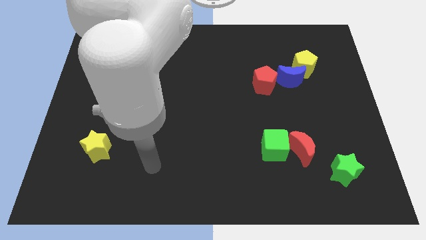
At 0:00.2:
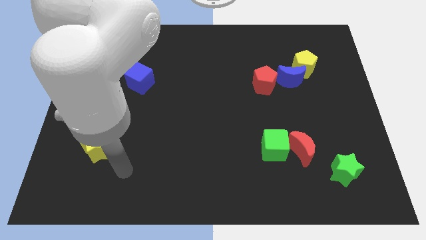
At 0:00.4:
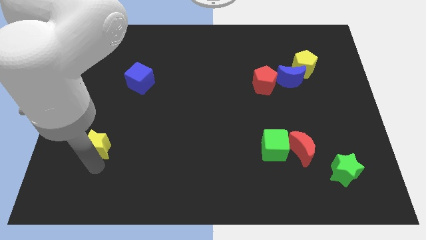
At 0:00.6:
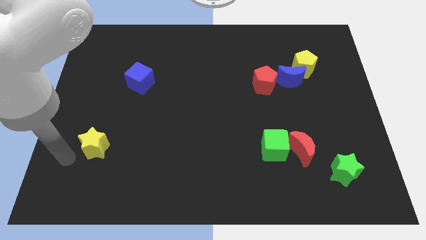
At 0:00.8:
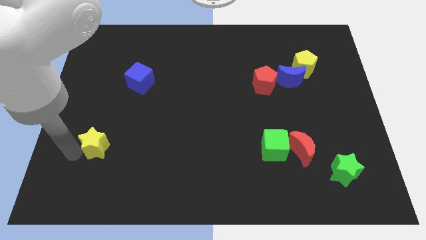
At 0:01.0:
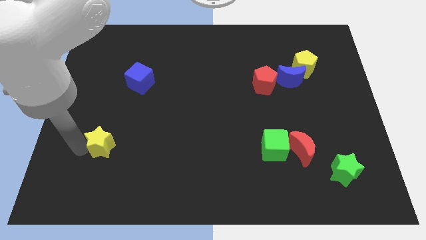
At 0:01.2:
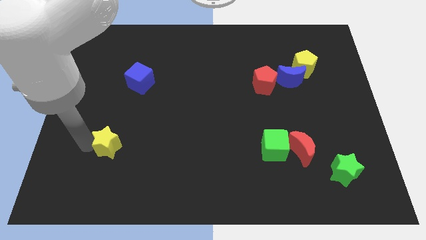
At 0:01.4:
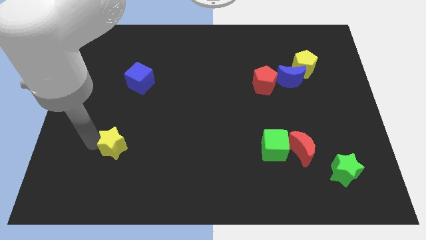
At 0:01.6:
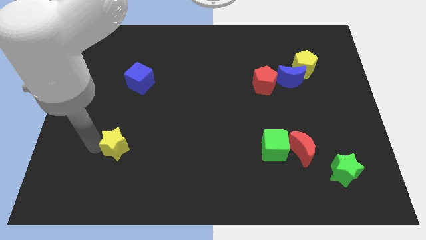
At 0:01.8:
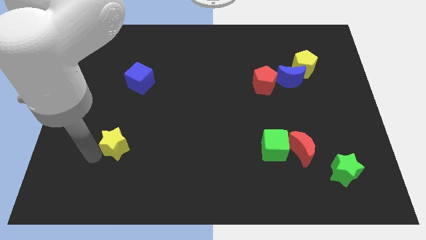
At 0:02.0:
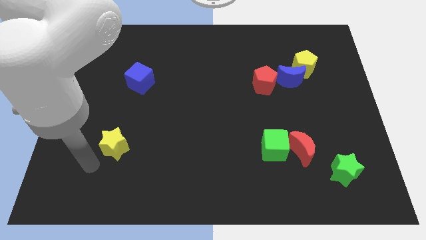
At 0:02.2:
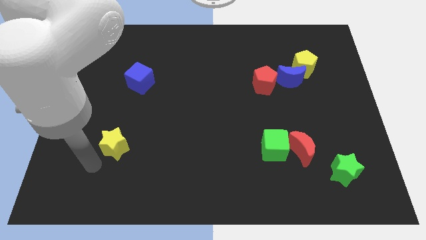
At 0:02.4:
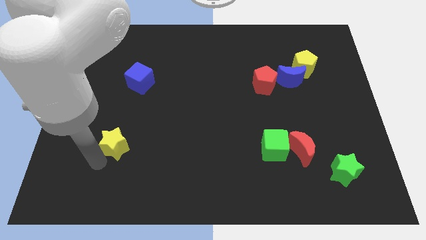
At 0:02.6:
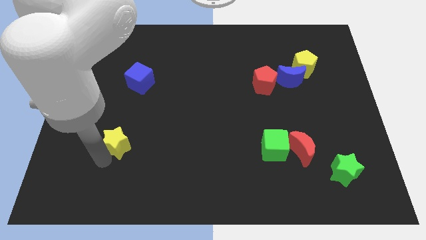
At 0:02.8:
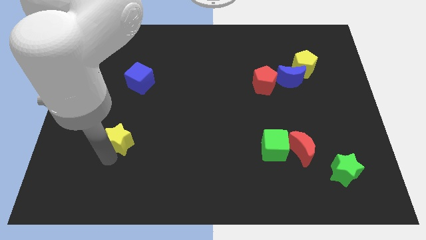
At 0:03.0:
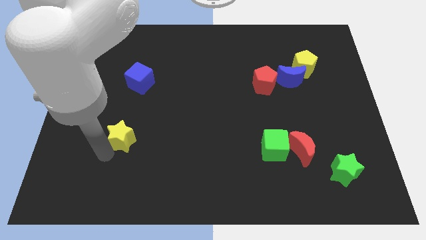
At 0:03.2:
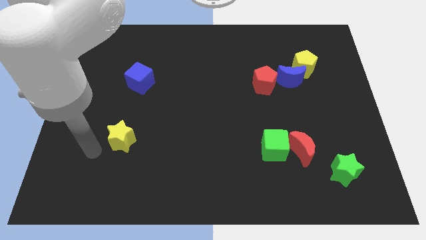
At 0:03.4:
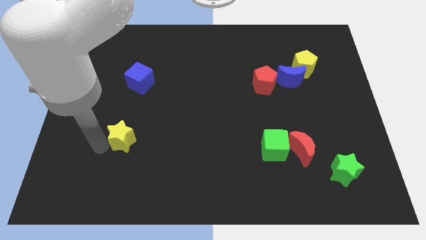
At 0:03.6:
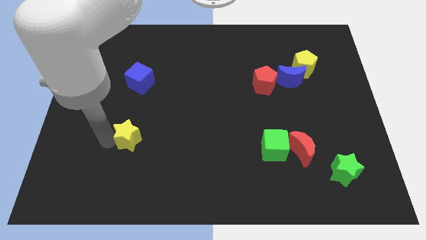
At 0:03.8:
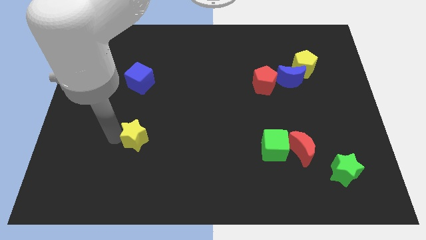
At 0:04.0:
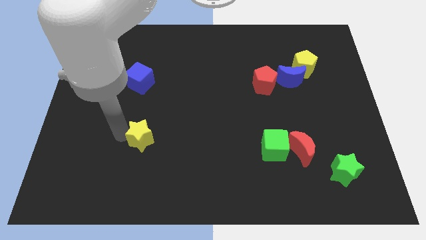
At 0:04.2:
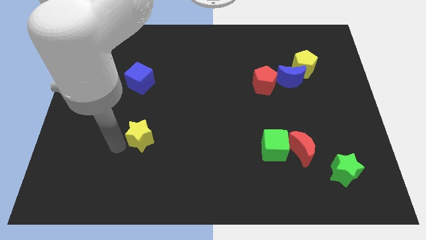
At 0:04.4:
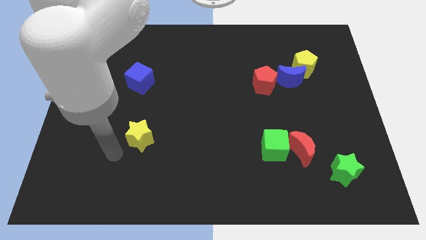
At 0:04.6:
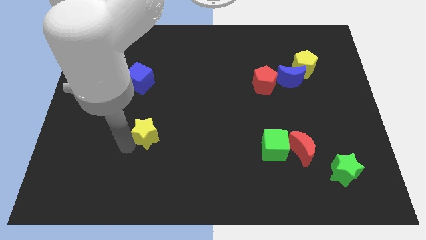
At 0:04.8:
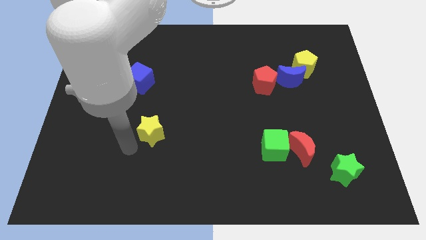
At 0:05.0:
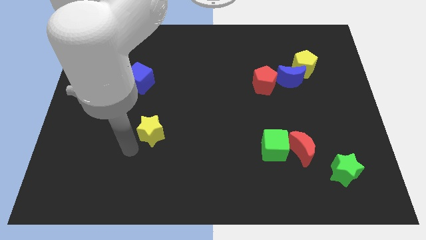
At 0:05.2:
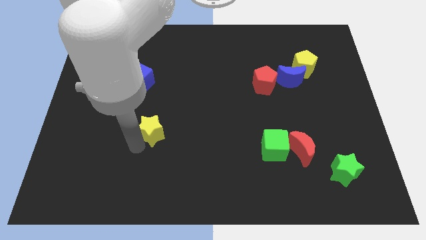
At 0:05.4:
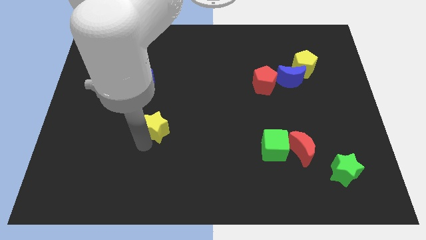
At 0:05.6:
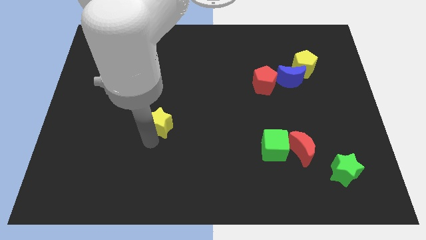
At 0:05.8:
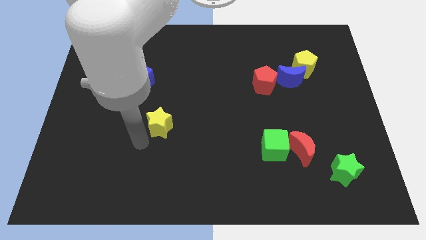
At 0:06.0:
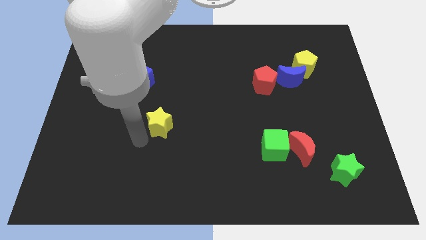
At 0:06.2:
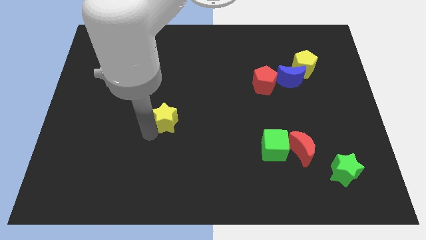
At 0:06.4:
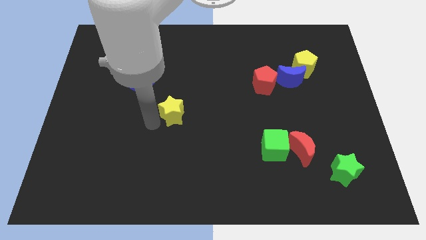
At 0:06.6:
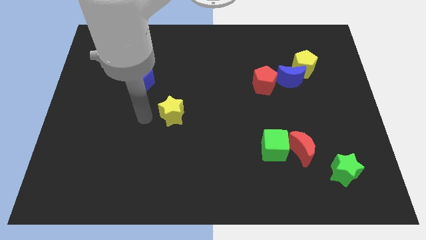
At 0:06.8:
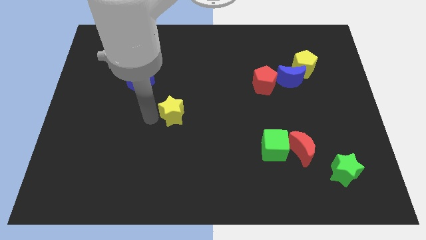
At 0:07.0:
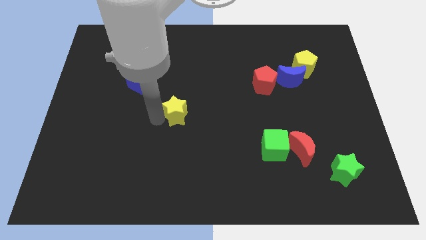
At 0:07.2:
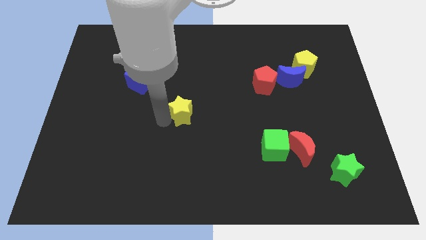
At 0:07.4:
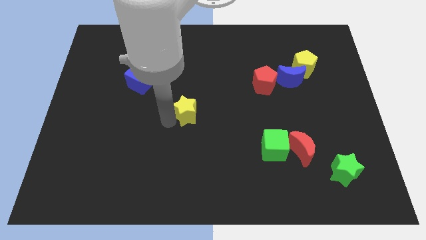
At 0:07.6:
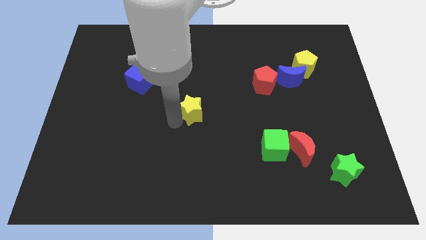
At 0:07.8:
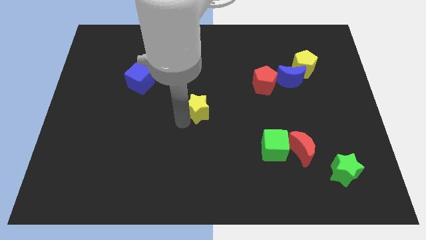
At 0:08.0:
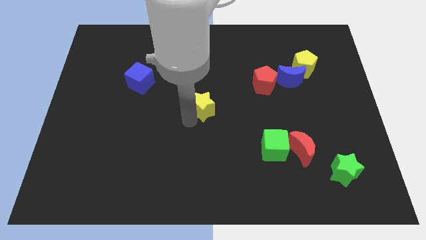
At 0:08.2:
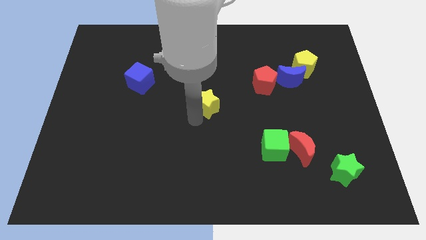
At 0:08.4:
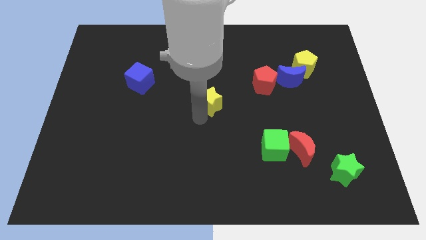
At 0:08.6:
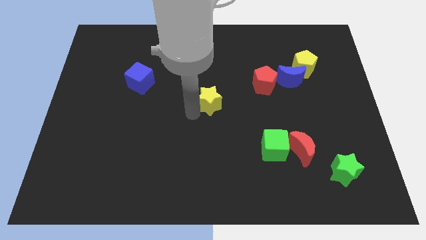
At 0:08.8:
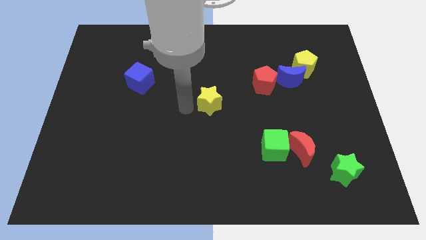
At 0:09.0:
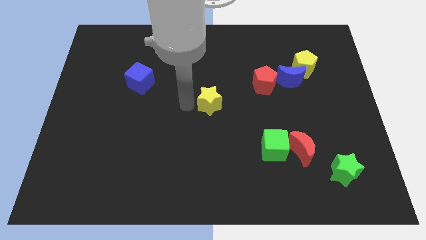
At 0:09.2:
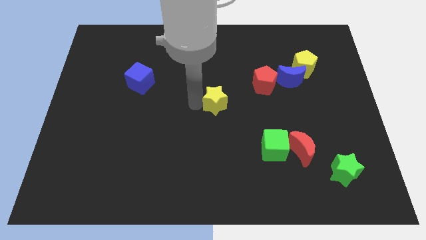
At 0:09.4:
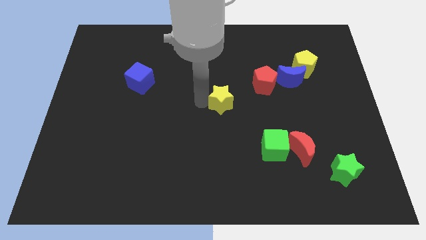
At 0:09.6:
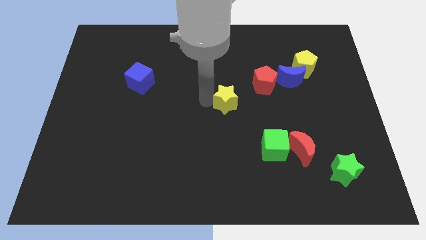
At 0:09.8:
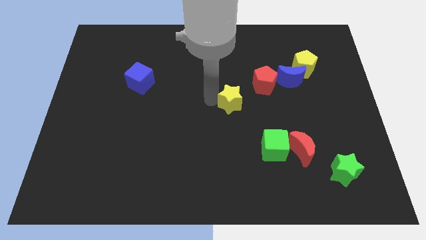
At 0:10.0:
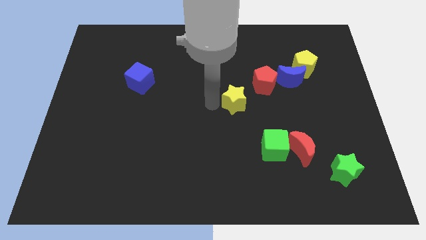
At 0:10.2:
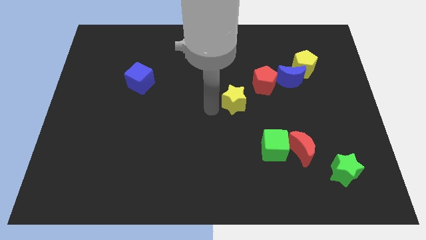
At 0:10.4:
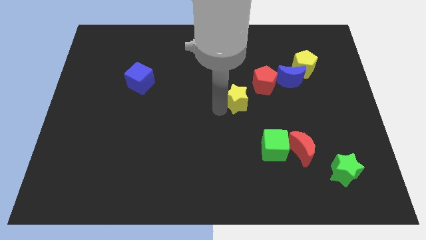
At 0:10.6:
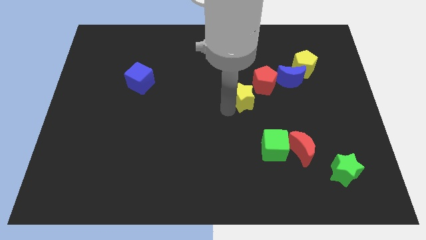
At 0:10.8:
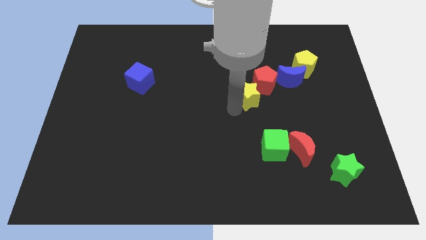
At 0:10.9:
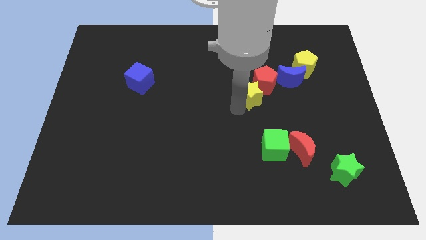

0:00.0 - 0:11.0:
slide the yellow star diagonally down and to the left of the blue moon

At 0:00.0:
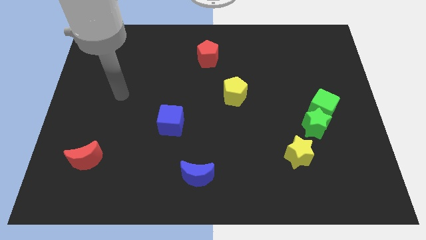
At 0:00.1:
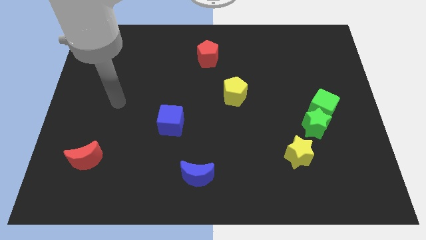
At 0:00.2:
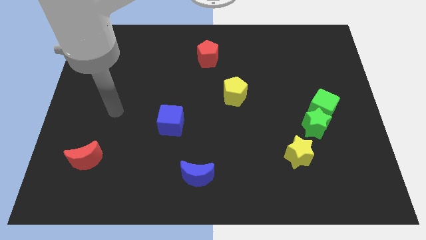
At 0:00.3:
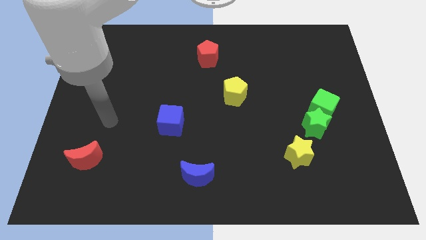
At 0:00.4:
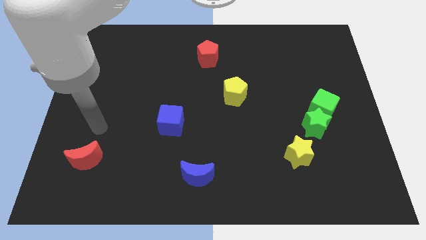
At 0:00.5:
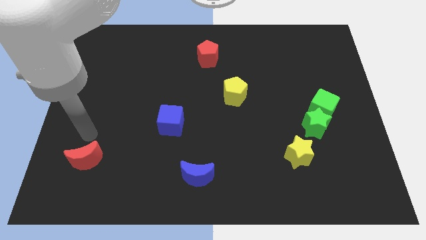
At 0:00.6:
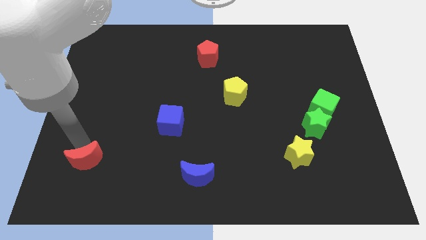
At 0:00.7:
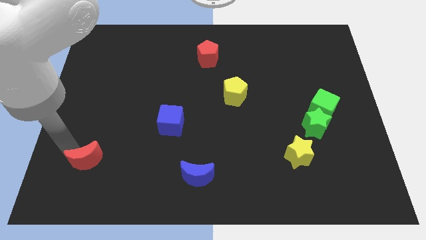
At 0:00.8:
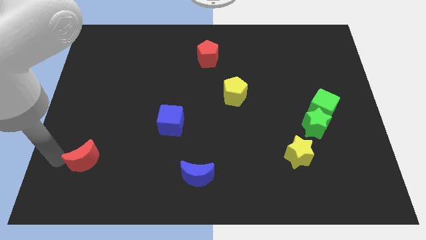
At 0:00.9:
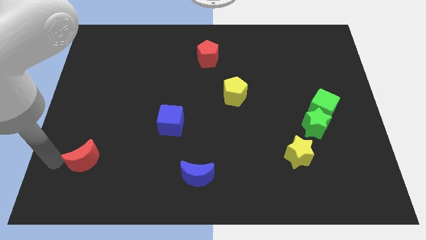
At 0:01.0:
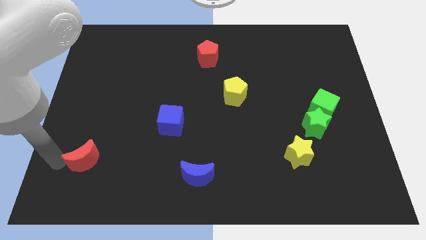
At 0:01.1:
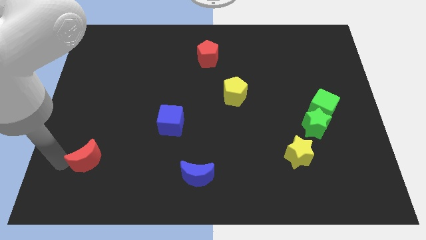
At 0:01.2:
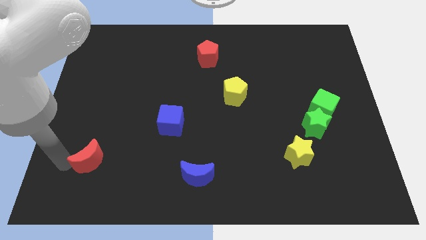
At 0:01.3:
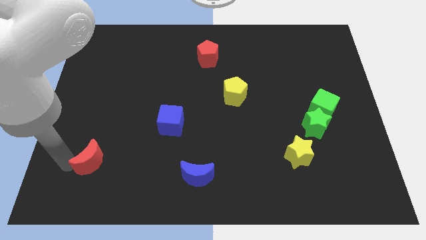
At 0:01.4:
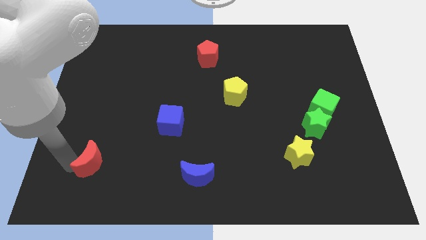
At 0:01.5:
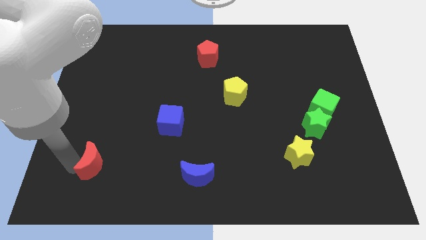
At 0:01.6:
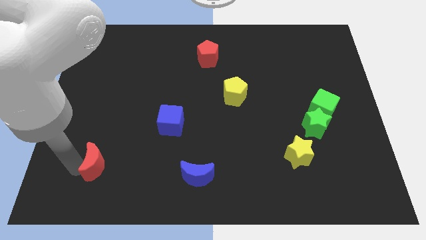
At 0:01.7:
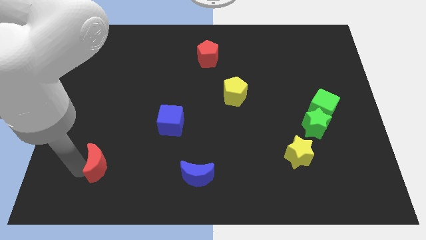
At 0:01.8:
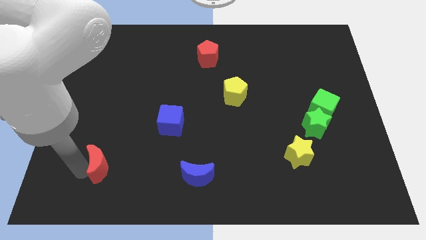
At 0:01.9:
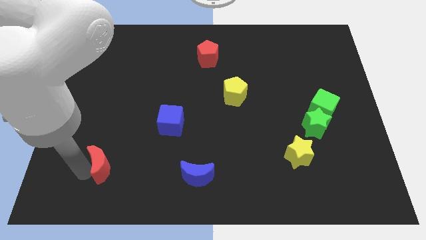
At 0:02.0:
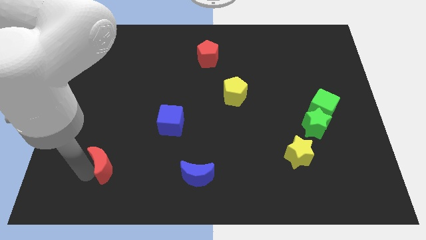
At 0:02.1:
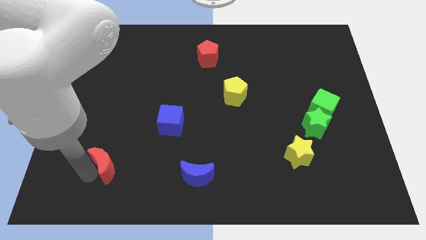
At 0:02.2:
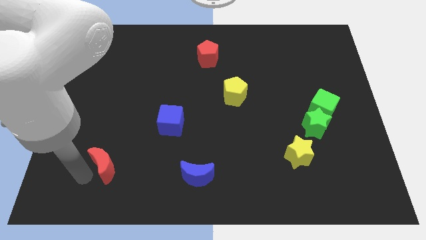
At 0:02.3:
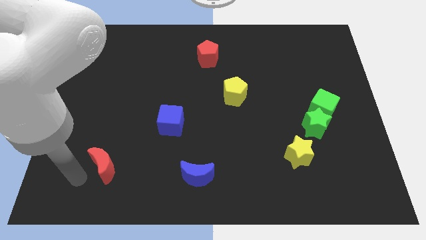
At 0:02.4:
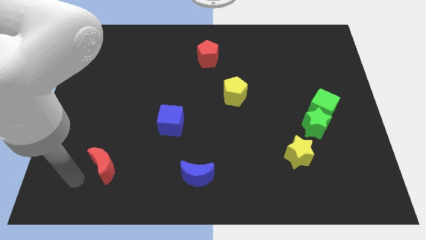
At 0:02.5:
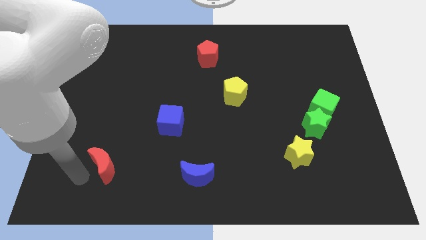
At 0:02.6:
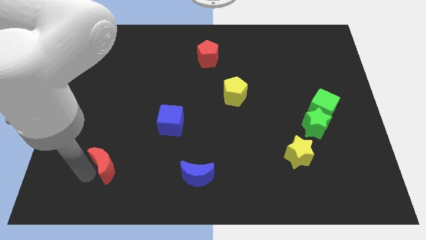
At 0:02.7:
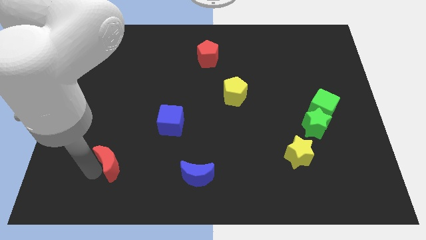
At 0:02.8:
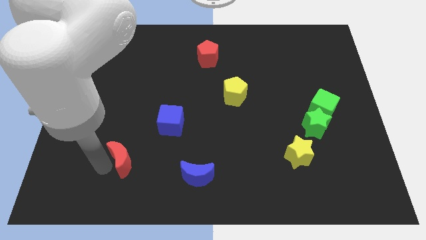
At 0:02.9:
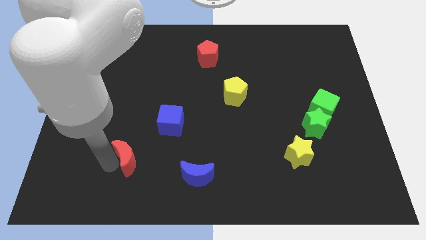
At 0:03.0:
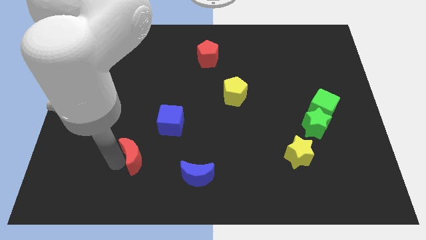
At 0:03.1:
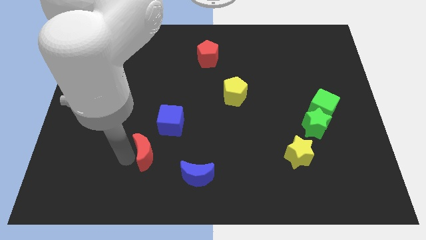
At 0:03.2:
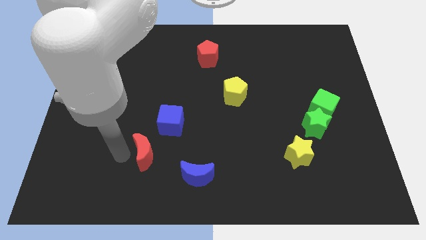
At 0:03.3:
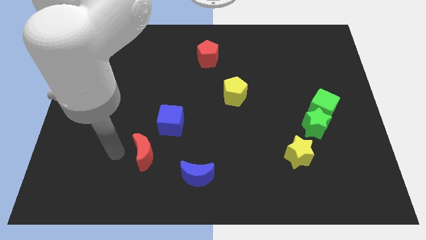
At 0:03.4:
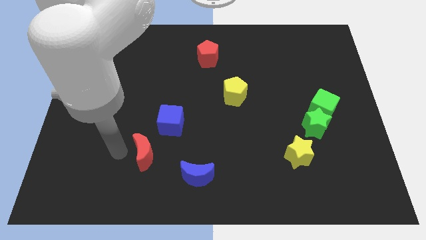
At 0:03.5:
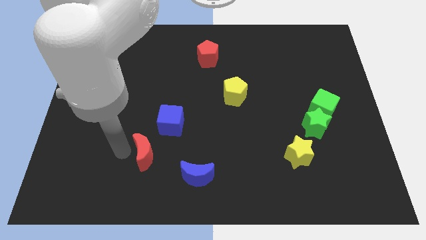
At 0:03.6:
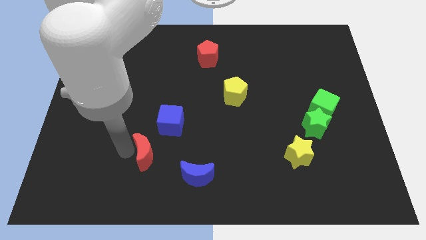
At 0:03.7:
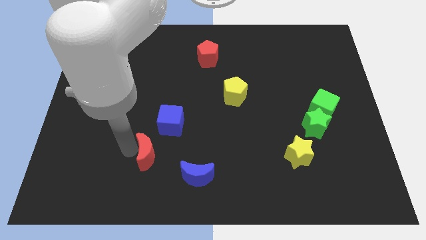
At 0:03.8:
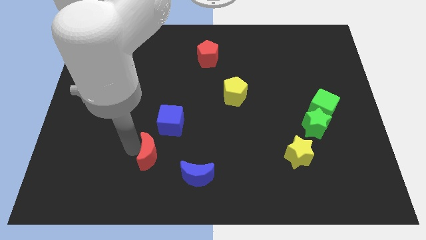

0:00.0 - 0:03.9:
put the red moon diagonally up and to the left of the blue moon
